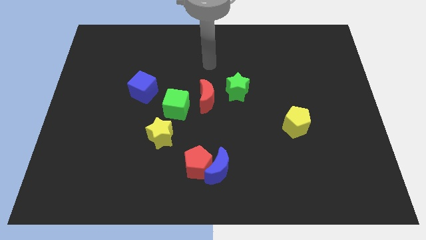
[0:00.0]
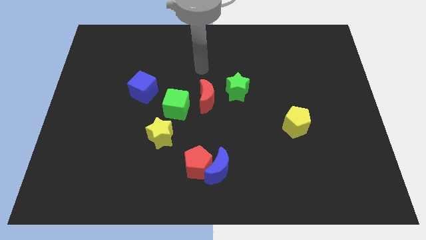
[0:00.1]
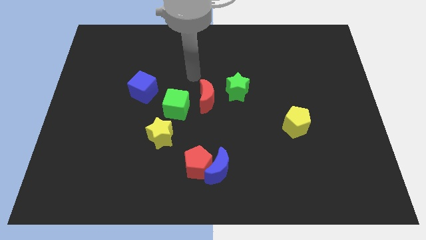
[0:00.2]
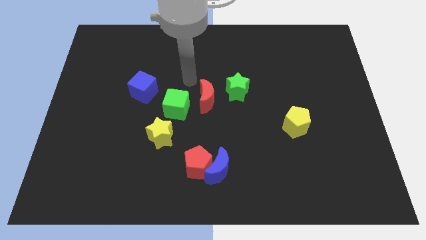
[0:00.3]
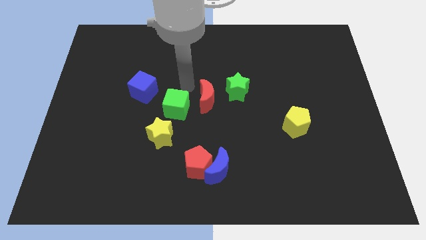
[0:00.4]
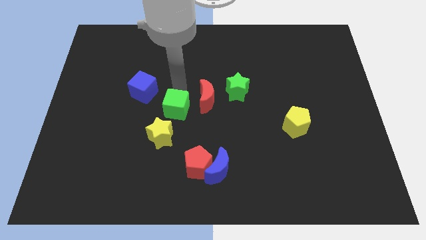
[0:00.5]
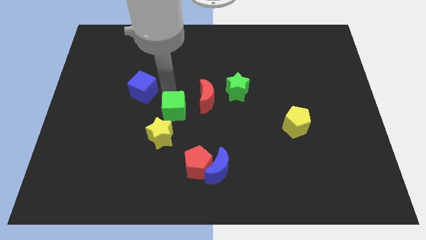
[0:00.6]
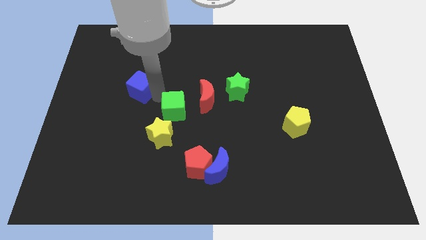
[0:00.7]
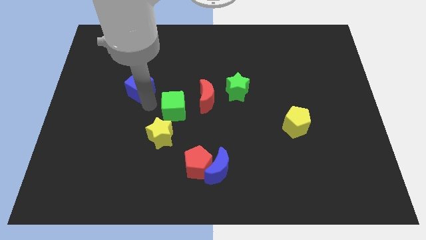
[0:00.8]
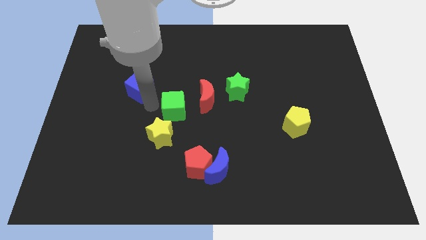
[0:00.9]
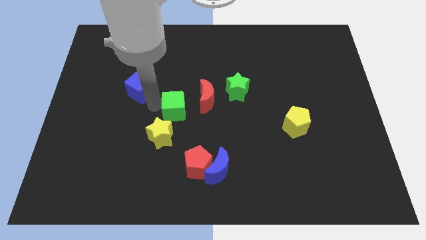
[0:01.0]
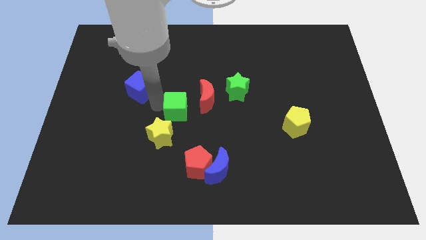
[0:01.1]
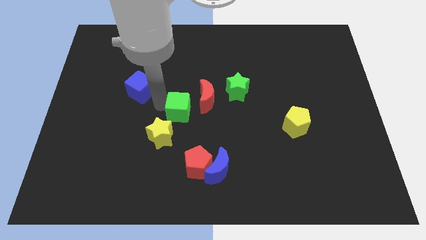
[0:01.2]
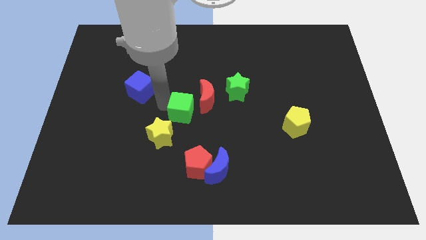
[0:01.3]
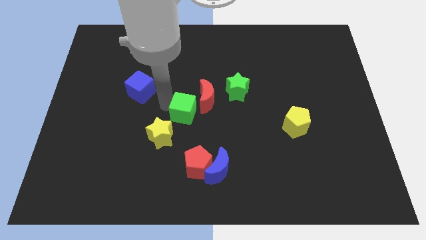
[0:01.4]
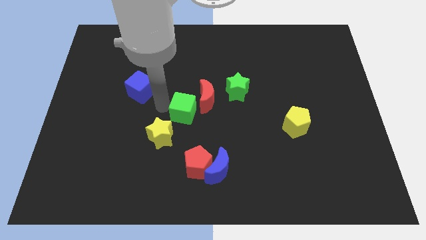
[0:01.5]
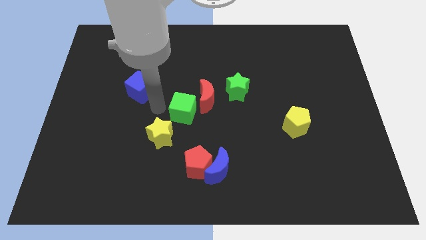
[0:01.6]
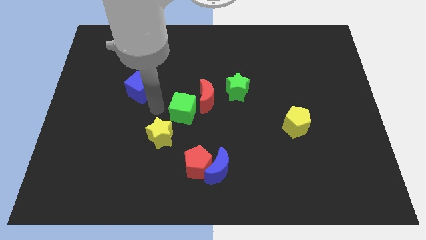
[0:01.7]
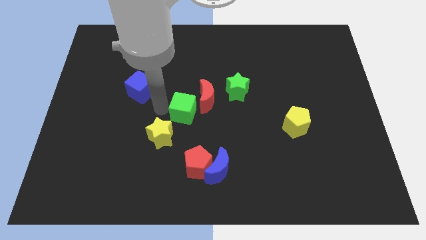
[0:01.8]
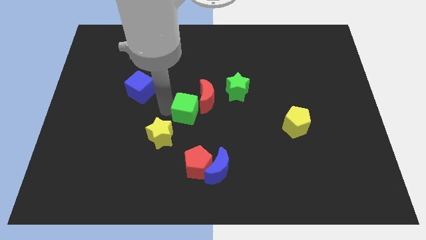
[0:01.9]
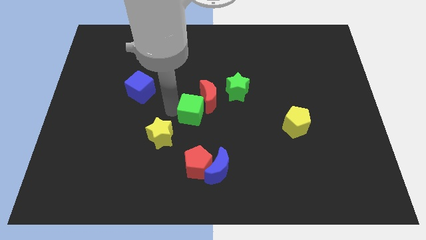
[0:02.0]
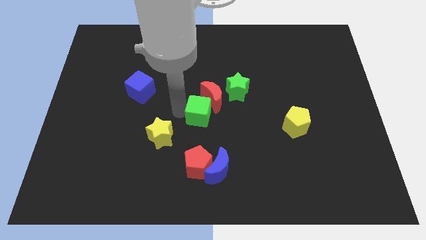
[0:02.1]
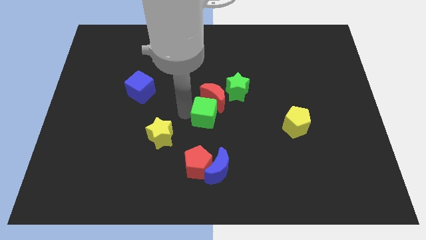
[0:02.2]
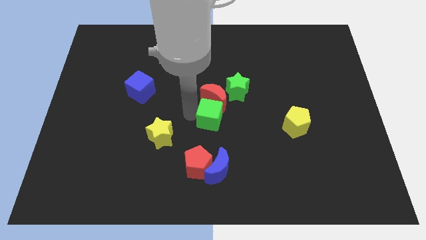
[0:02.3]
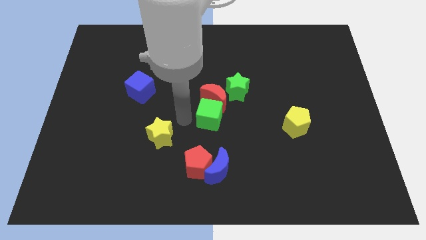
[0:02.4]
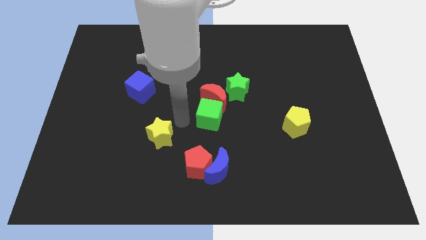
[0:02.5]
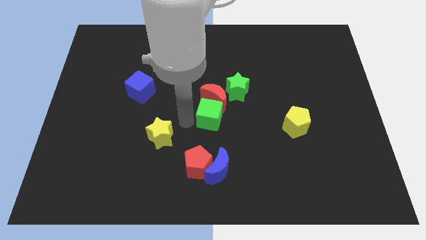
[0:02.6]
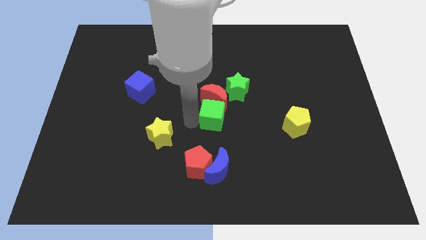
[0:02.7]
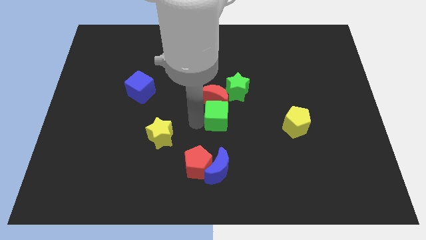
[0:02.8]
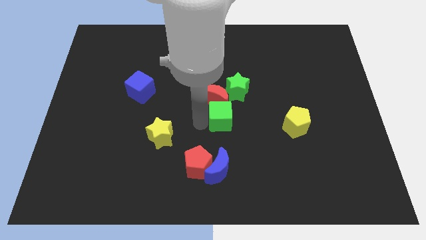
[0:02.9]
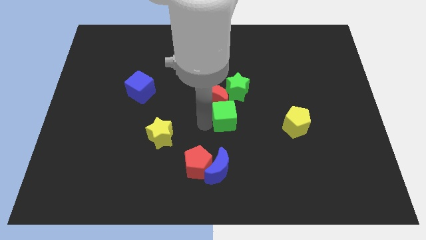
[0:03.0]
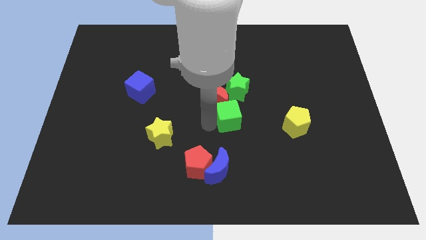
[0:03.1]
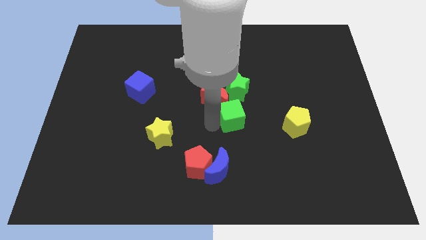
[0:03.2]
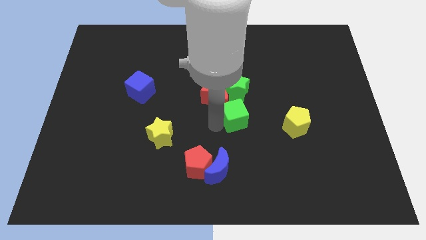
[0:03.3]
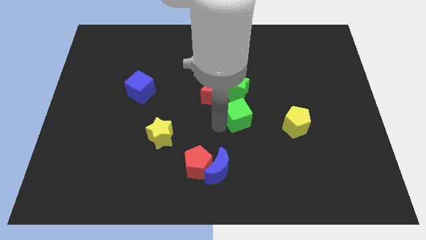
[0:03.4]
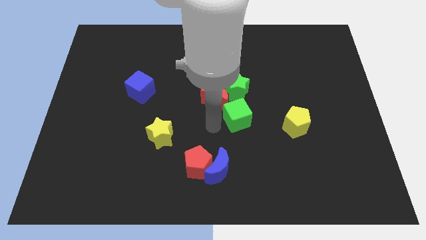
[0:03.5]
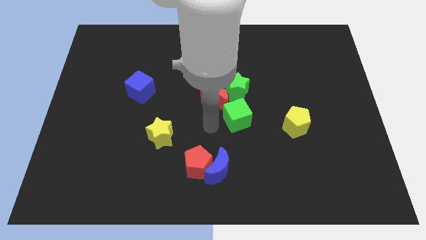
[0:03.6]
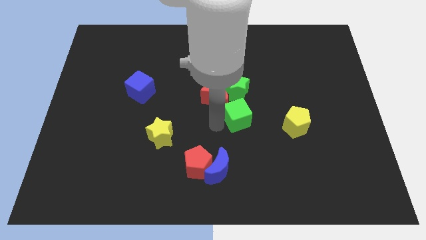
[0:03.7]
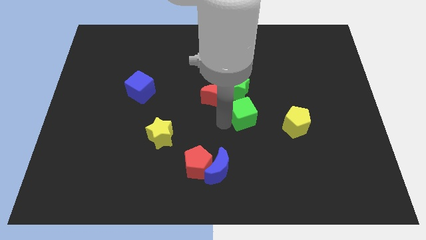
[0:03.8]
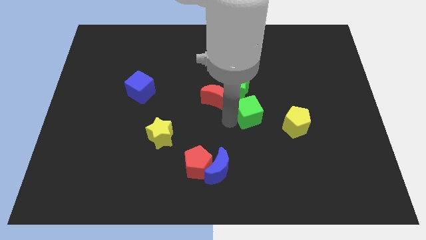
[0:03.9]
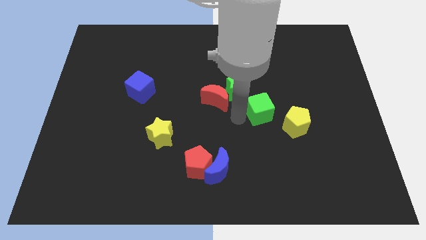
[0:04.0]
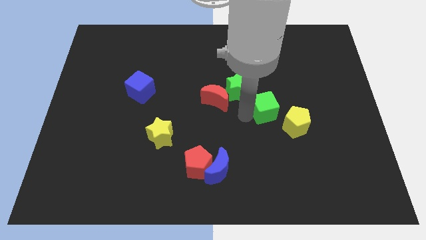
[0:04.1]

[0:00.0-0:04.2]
slide the green cube to the right

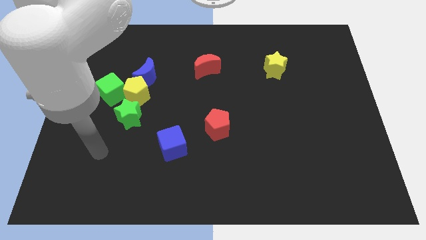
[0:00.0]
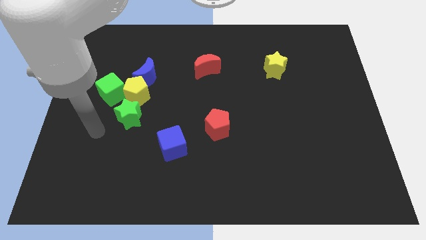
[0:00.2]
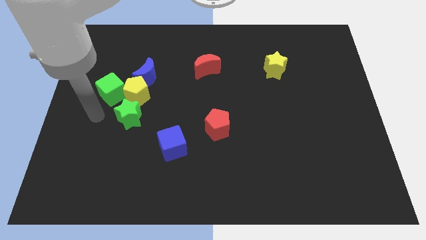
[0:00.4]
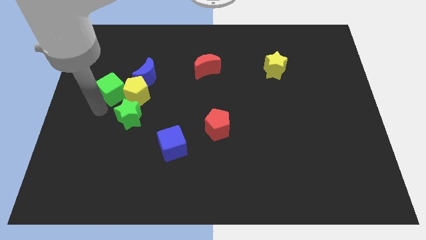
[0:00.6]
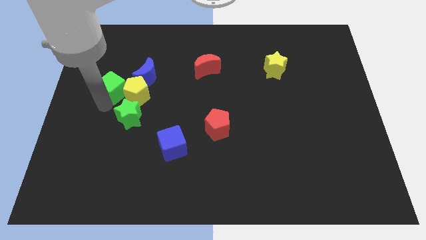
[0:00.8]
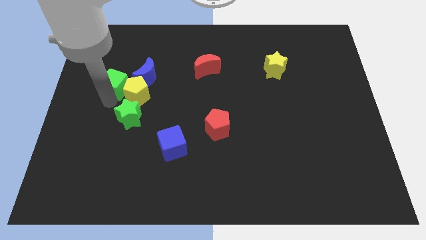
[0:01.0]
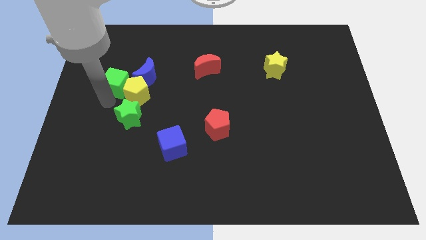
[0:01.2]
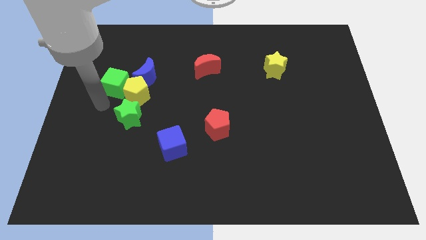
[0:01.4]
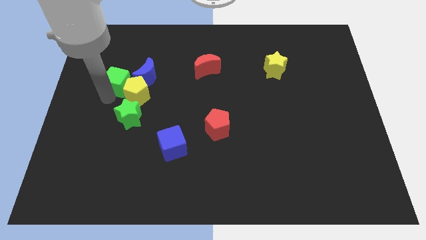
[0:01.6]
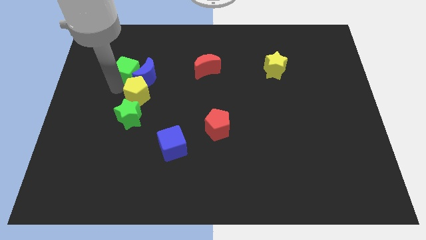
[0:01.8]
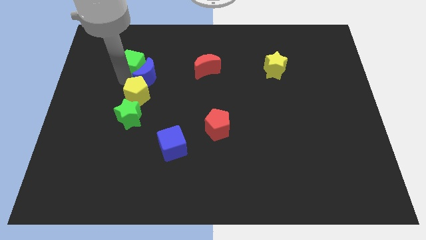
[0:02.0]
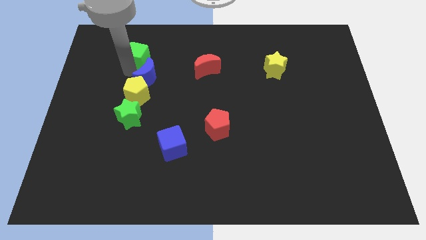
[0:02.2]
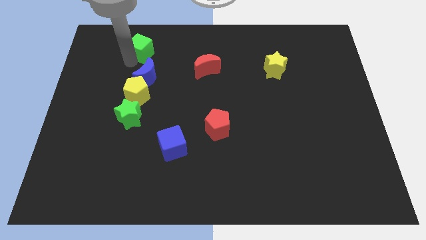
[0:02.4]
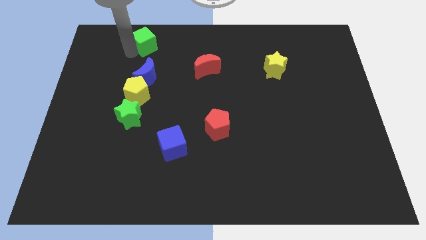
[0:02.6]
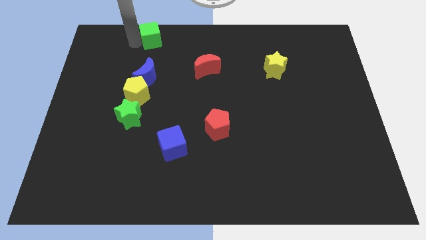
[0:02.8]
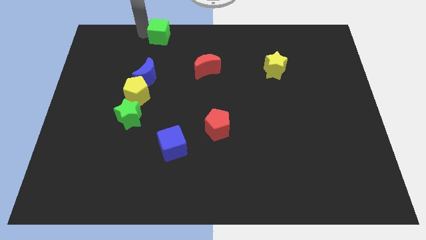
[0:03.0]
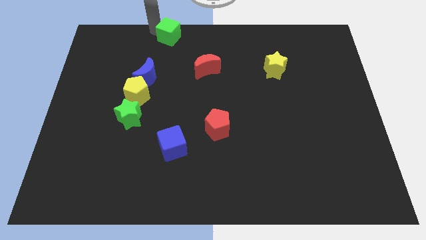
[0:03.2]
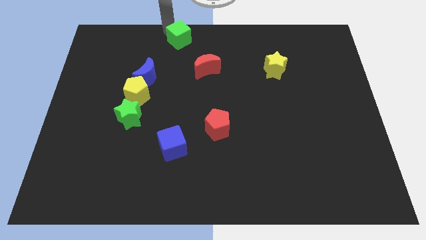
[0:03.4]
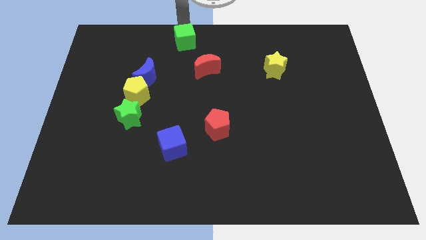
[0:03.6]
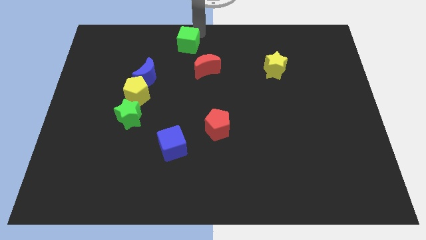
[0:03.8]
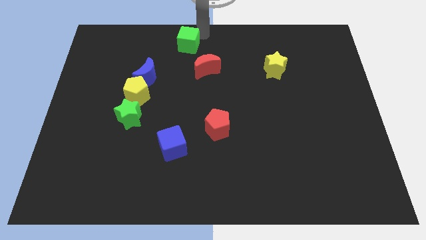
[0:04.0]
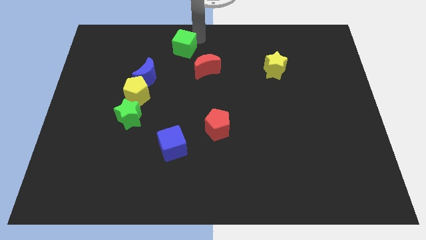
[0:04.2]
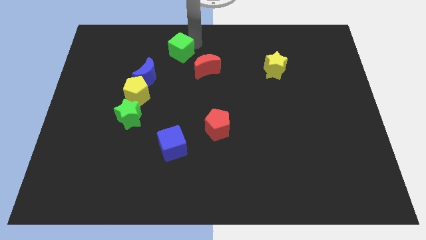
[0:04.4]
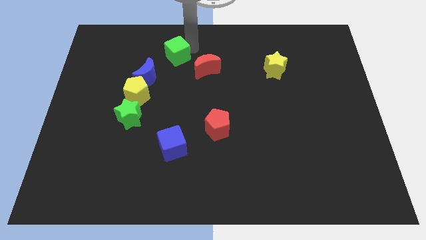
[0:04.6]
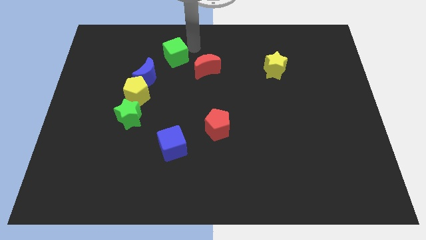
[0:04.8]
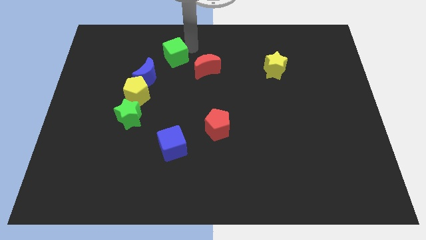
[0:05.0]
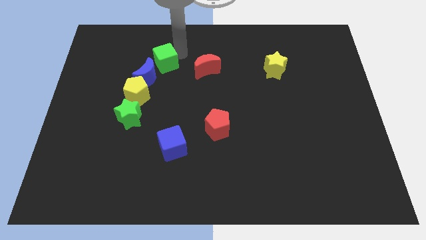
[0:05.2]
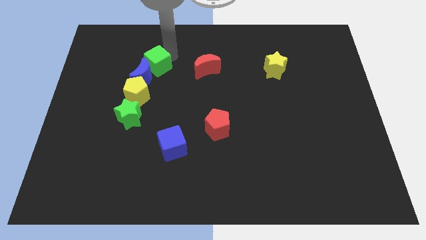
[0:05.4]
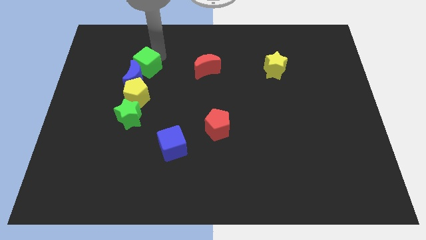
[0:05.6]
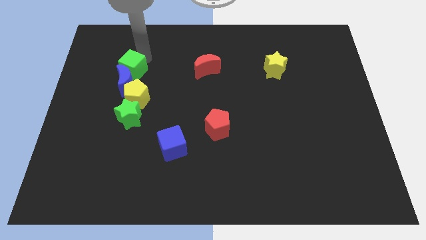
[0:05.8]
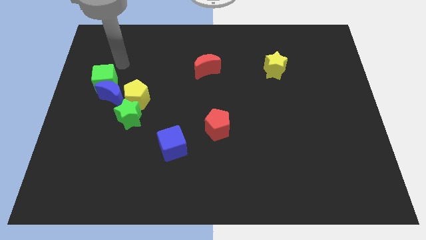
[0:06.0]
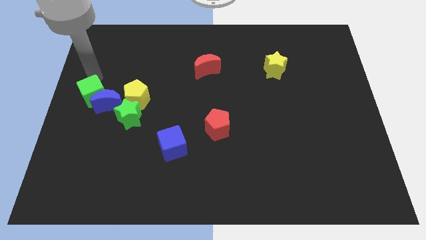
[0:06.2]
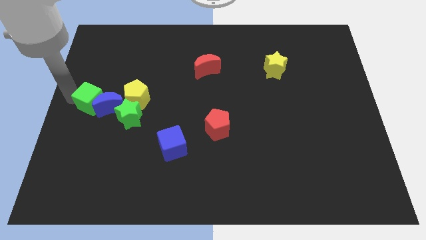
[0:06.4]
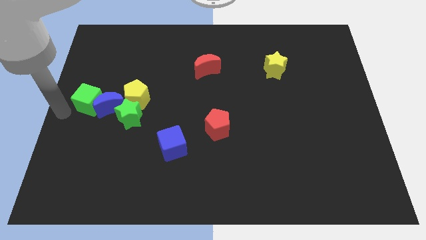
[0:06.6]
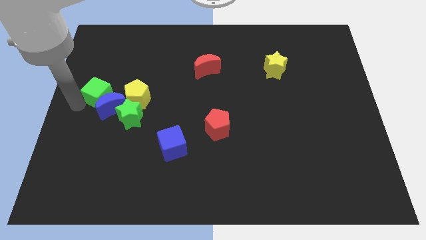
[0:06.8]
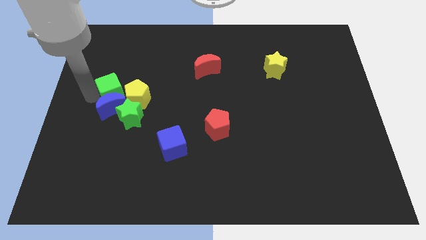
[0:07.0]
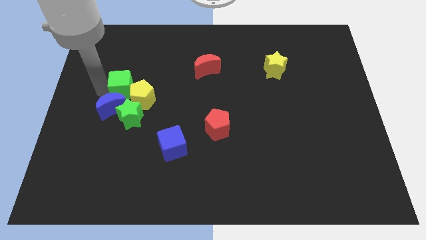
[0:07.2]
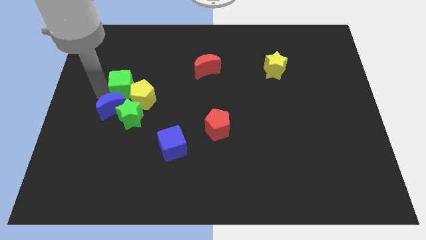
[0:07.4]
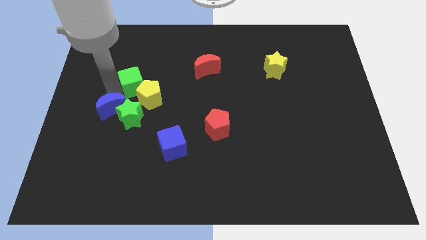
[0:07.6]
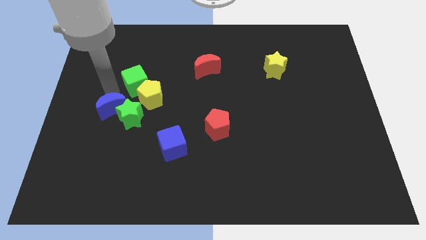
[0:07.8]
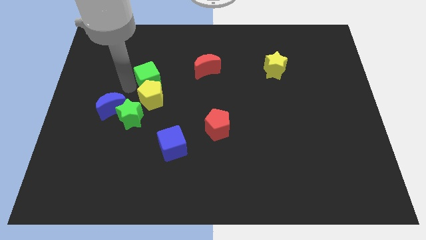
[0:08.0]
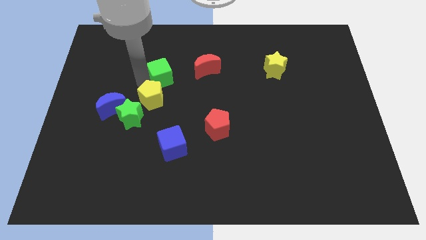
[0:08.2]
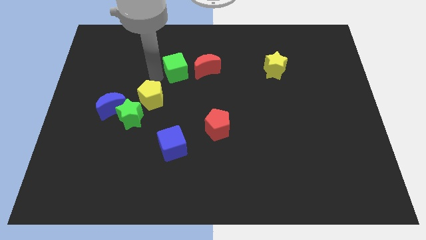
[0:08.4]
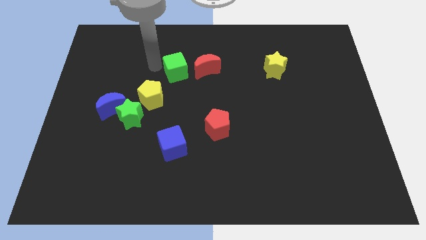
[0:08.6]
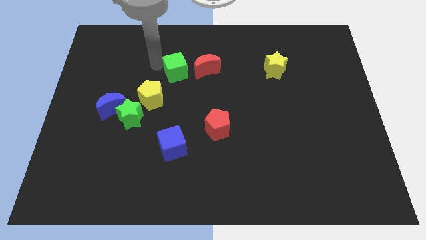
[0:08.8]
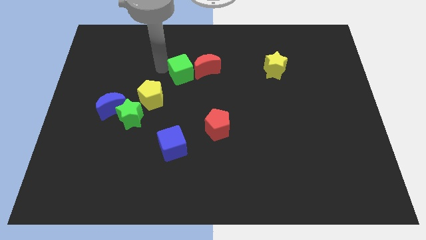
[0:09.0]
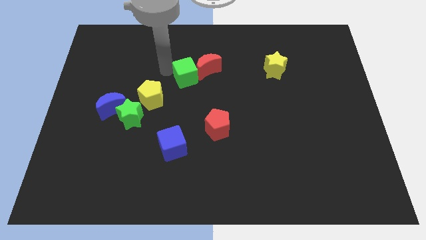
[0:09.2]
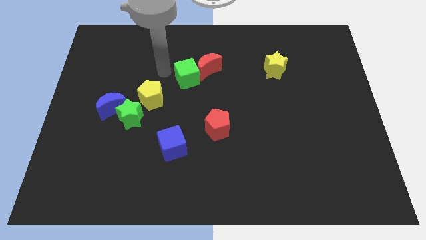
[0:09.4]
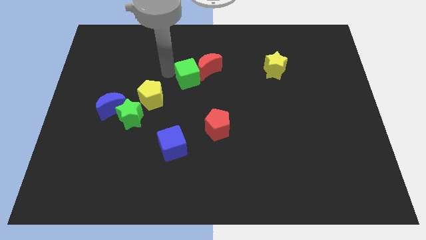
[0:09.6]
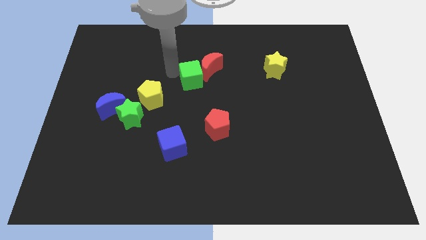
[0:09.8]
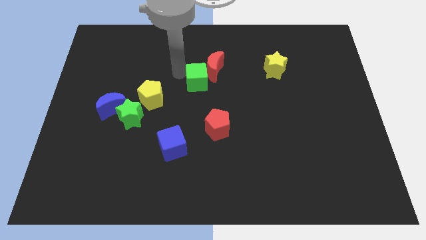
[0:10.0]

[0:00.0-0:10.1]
push the green cube right
